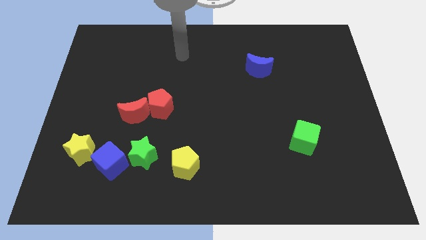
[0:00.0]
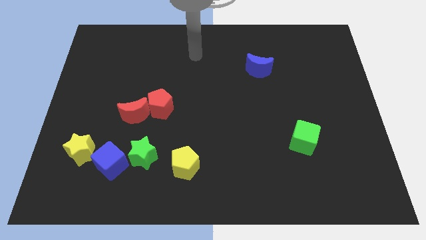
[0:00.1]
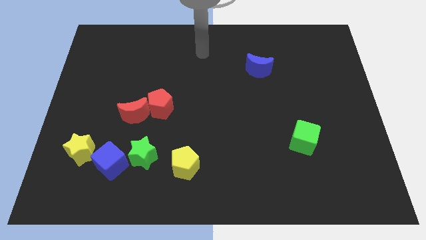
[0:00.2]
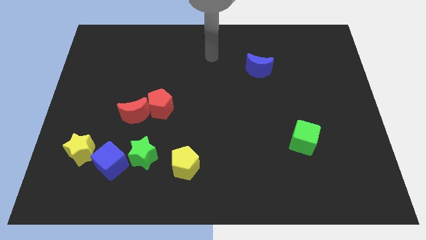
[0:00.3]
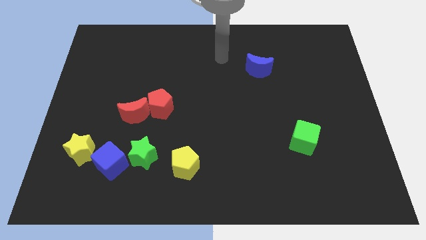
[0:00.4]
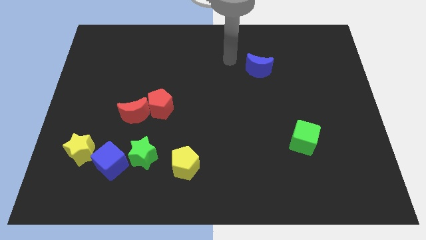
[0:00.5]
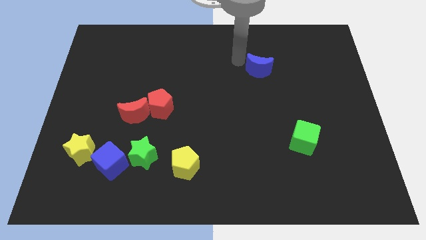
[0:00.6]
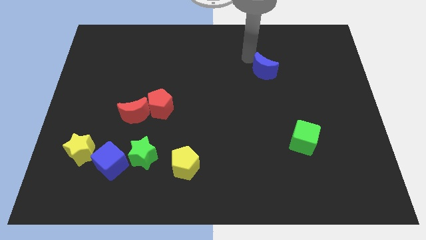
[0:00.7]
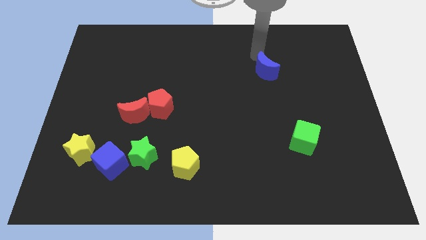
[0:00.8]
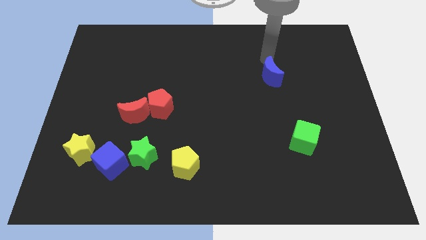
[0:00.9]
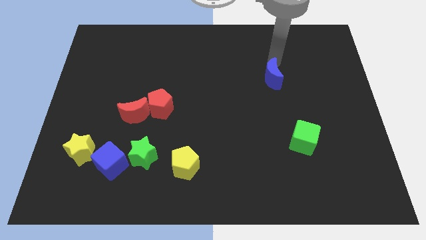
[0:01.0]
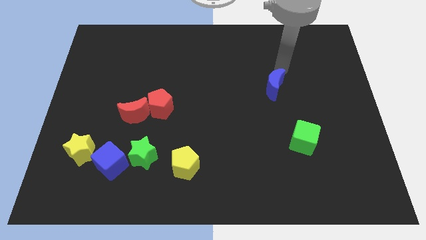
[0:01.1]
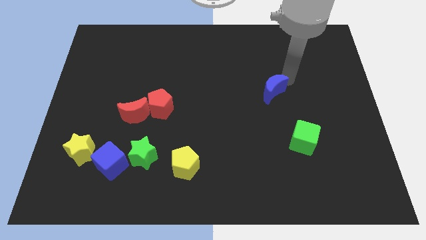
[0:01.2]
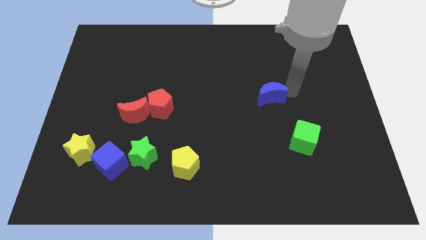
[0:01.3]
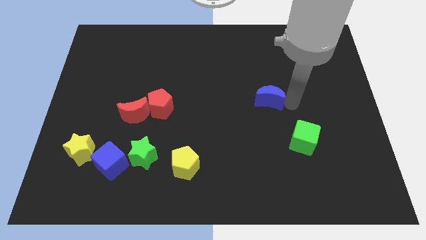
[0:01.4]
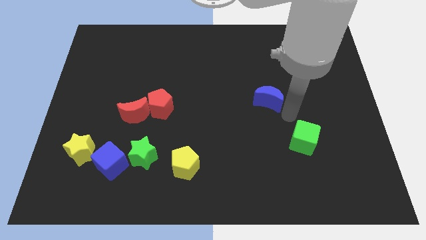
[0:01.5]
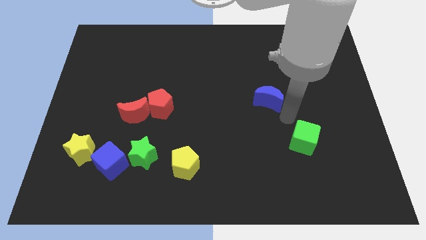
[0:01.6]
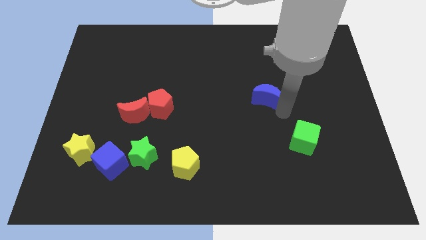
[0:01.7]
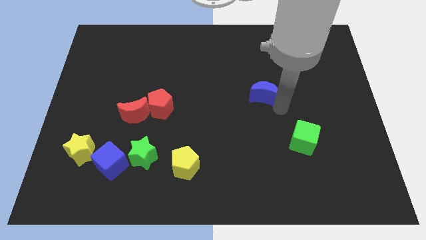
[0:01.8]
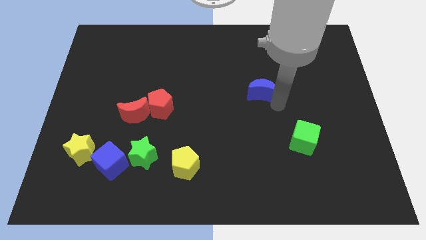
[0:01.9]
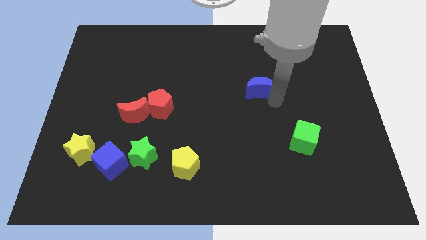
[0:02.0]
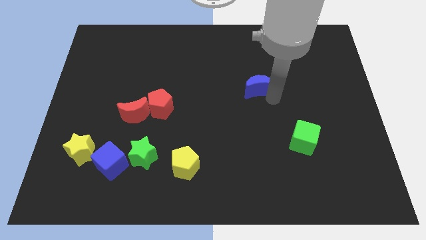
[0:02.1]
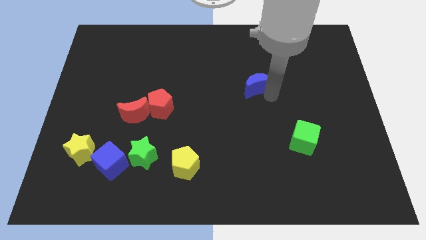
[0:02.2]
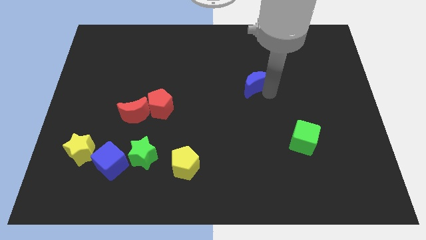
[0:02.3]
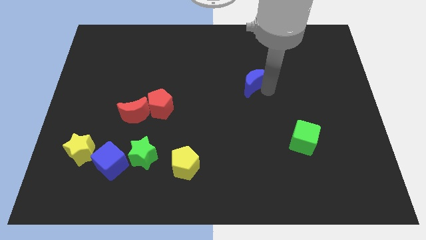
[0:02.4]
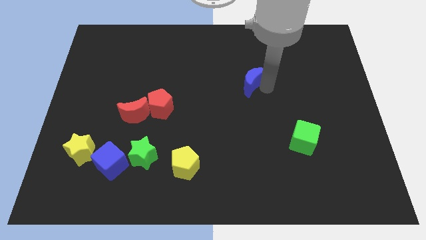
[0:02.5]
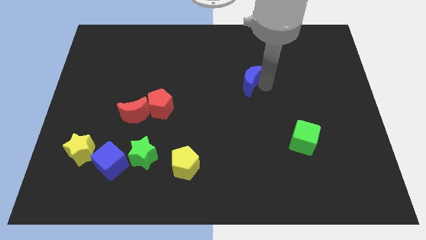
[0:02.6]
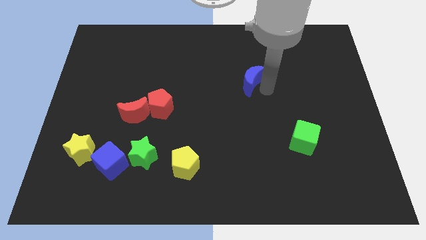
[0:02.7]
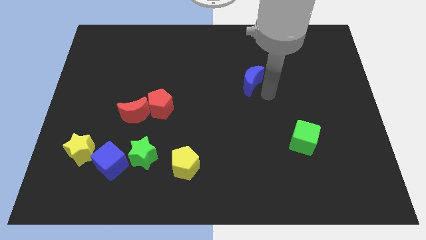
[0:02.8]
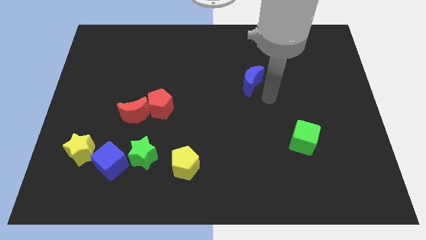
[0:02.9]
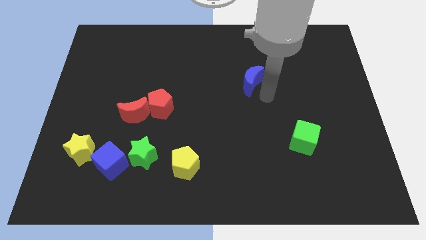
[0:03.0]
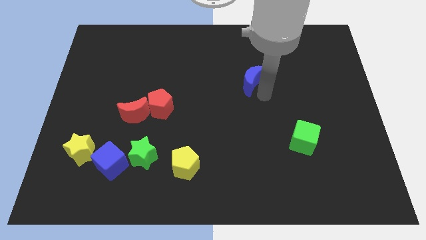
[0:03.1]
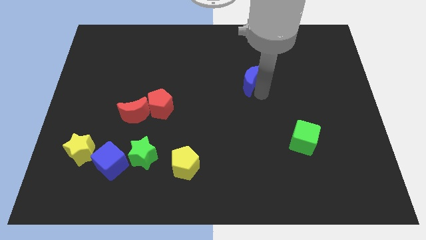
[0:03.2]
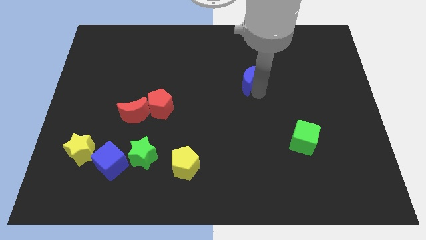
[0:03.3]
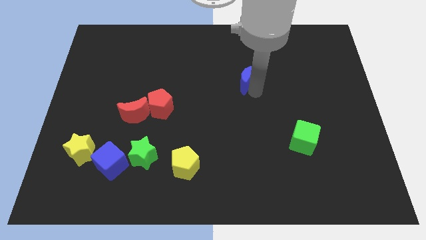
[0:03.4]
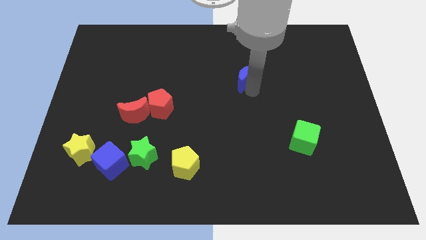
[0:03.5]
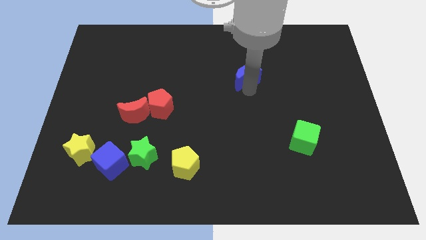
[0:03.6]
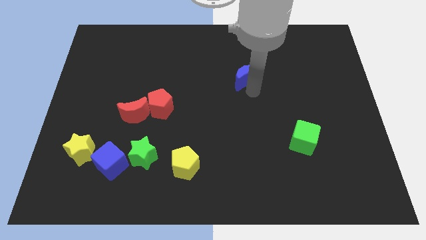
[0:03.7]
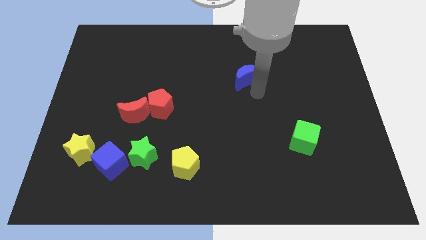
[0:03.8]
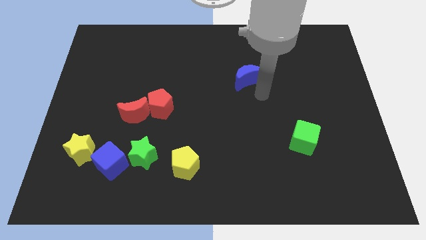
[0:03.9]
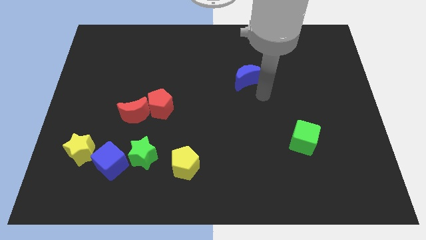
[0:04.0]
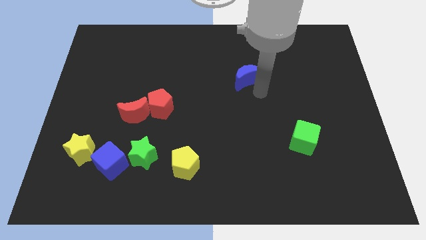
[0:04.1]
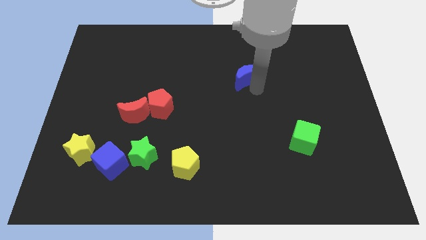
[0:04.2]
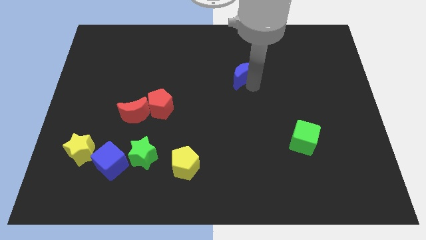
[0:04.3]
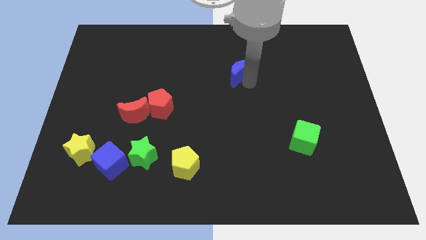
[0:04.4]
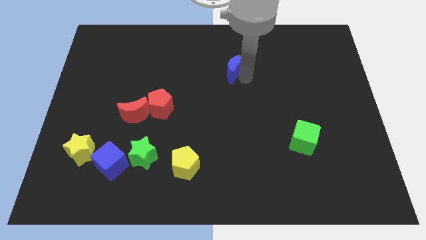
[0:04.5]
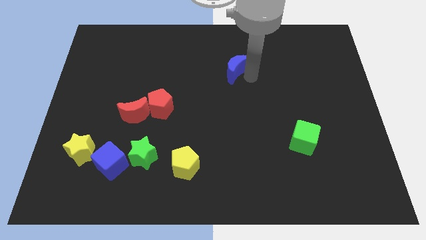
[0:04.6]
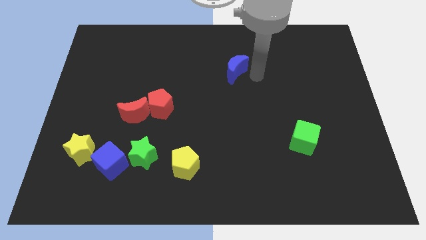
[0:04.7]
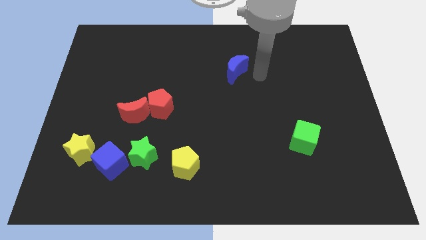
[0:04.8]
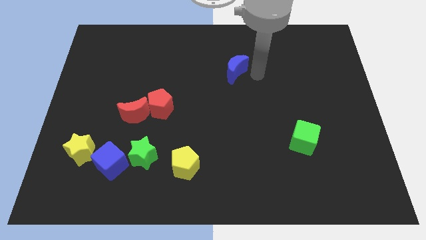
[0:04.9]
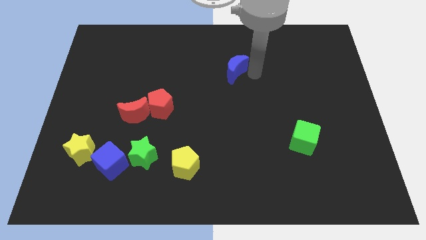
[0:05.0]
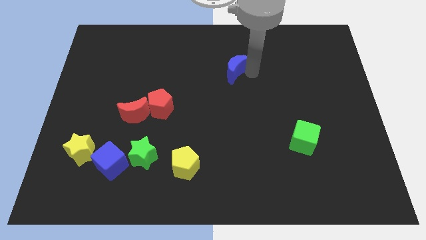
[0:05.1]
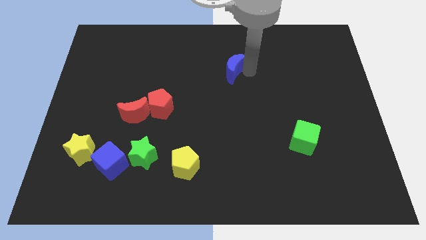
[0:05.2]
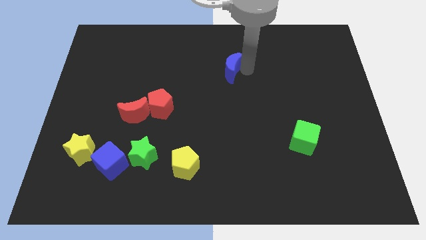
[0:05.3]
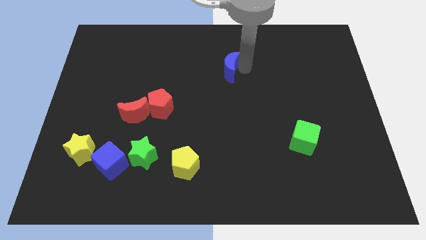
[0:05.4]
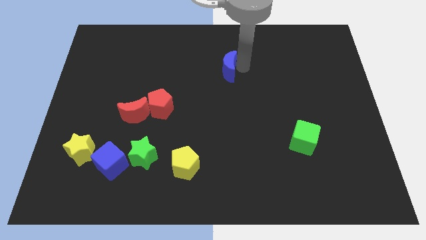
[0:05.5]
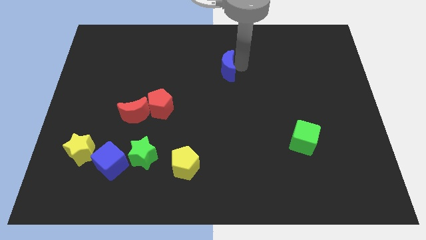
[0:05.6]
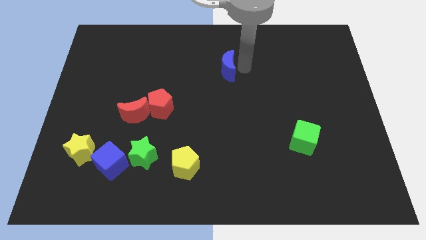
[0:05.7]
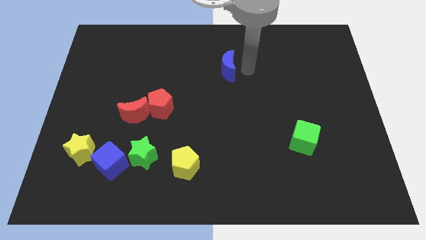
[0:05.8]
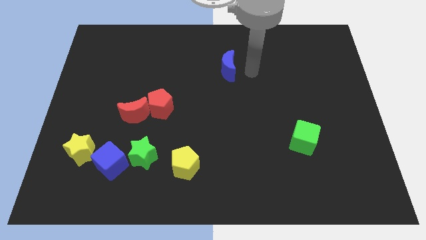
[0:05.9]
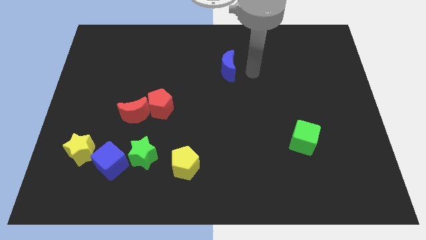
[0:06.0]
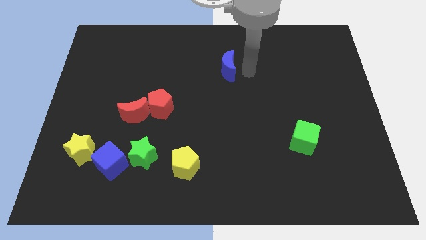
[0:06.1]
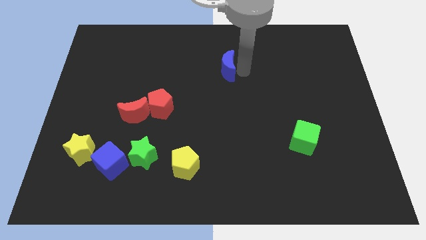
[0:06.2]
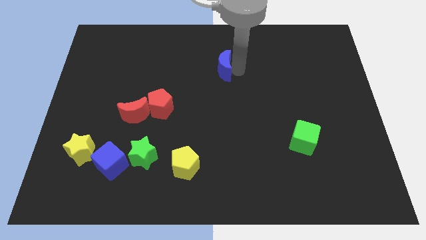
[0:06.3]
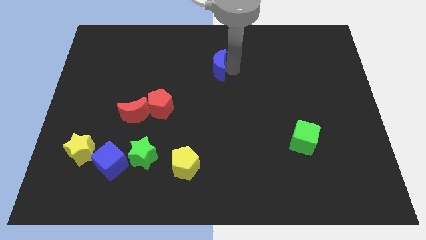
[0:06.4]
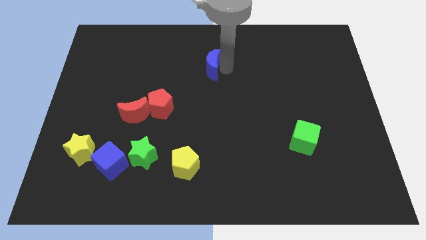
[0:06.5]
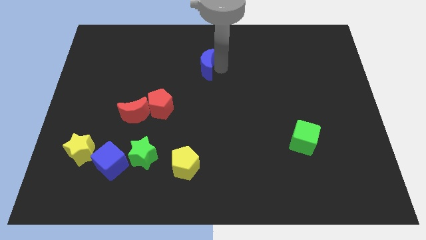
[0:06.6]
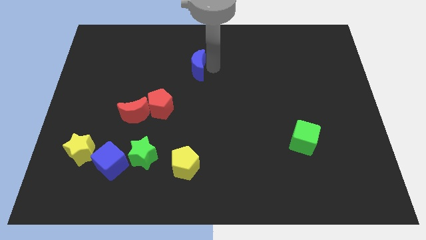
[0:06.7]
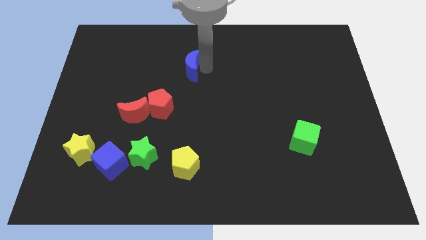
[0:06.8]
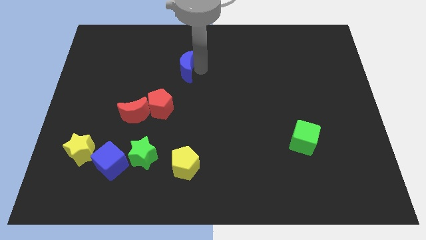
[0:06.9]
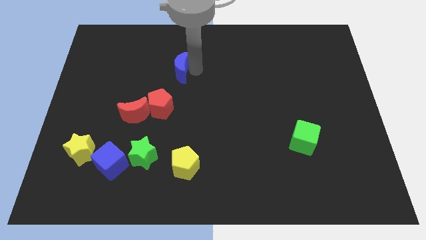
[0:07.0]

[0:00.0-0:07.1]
slide the blue moon to the left

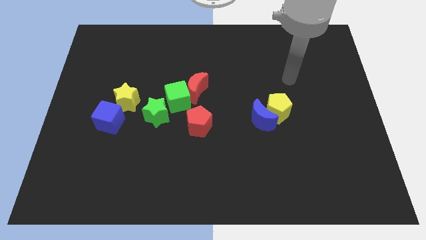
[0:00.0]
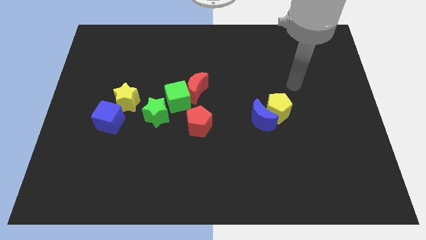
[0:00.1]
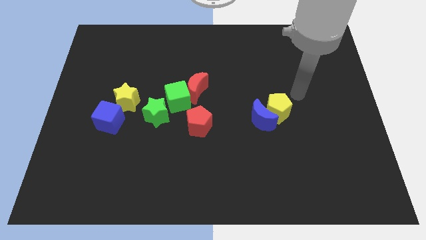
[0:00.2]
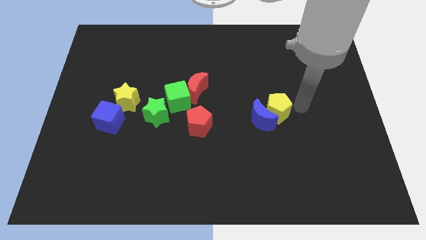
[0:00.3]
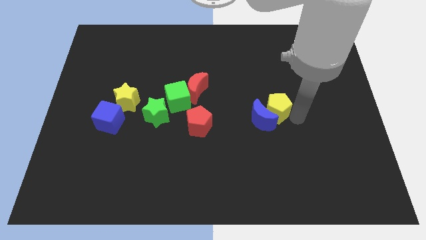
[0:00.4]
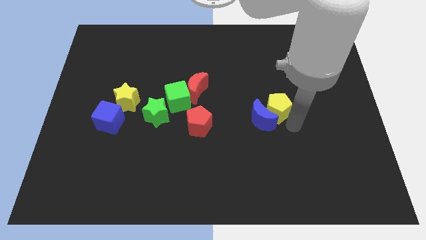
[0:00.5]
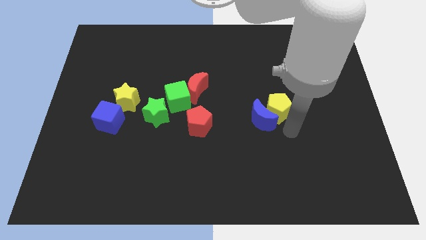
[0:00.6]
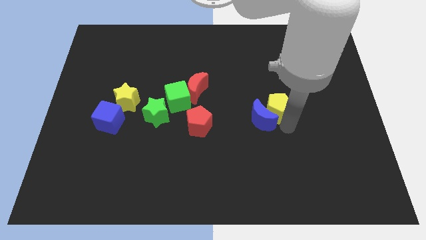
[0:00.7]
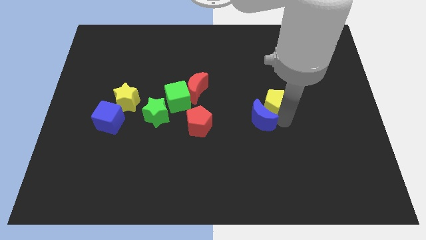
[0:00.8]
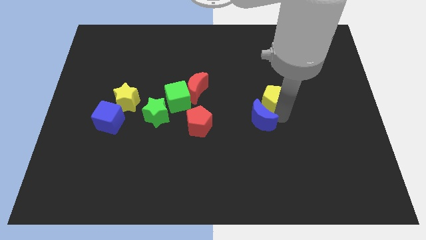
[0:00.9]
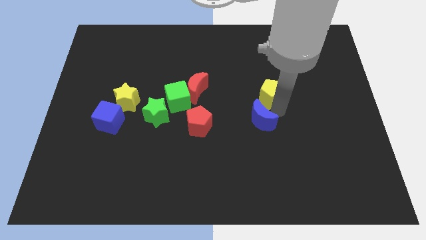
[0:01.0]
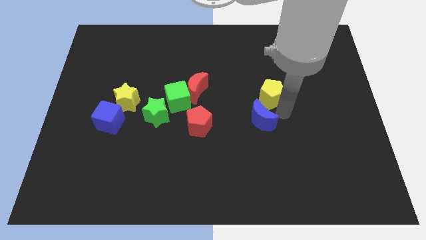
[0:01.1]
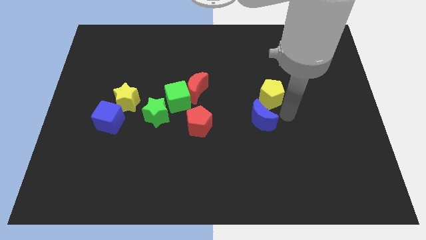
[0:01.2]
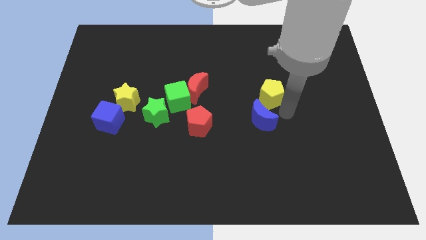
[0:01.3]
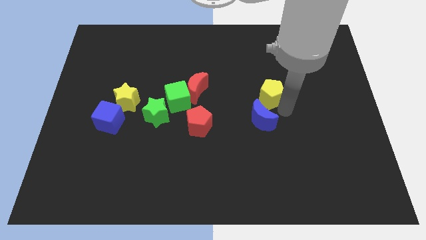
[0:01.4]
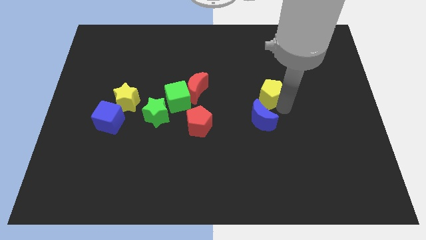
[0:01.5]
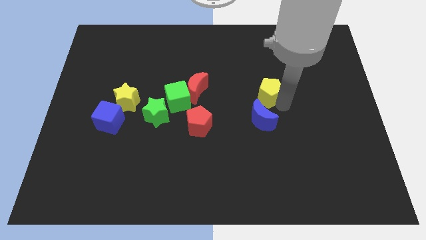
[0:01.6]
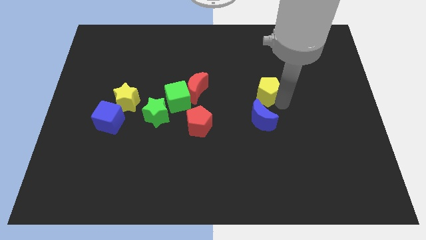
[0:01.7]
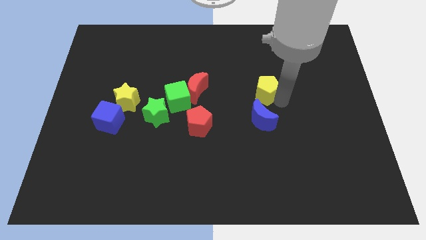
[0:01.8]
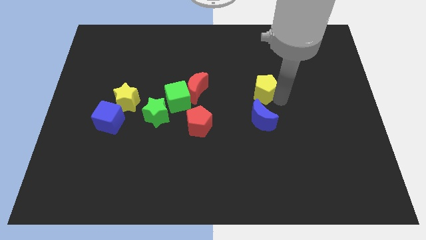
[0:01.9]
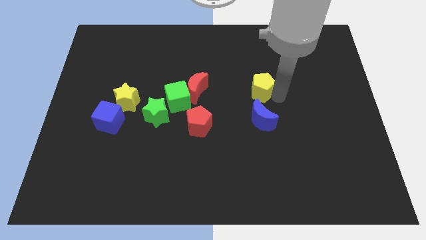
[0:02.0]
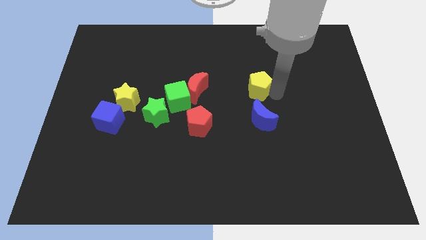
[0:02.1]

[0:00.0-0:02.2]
push the yellow pentagon a little bit up and to the left diagonally
